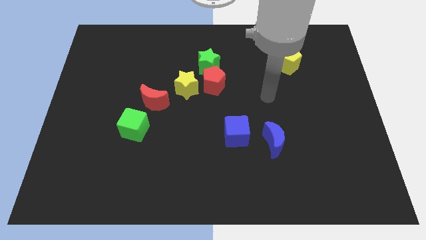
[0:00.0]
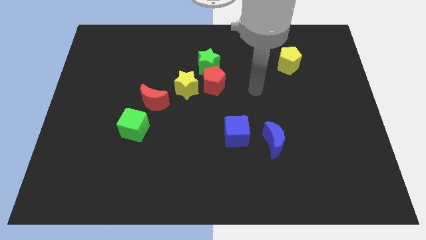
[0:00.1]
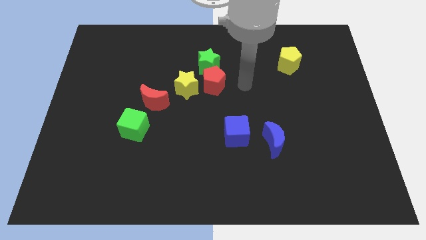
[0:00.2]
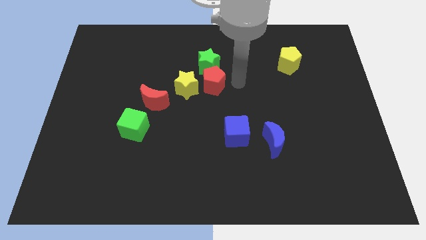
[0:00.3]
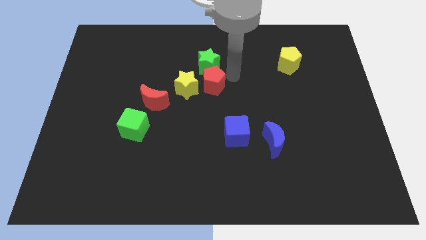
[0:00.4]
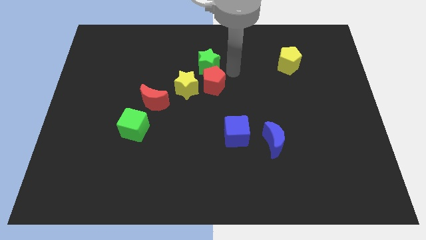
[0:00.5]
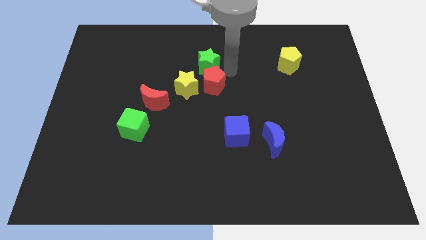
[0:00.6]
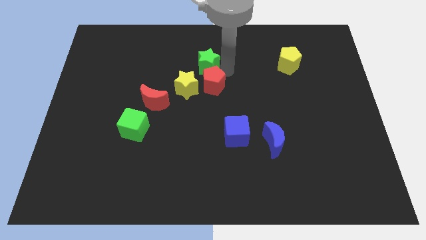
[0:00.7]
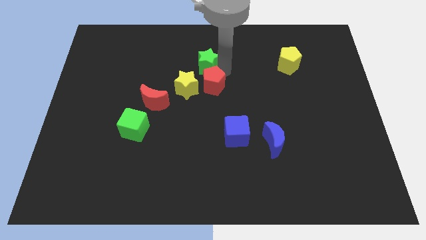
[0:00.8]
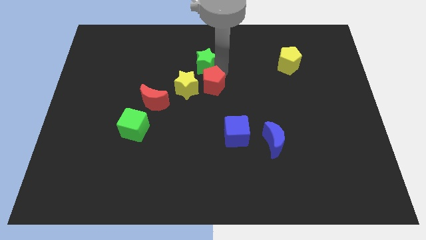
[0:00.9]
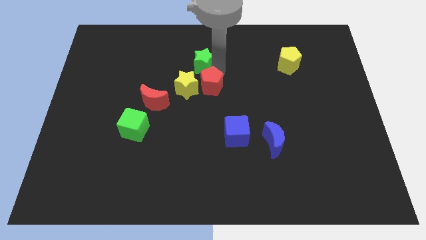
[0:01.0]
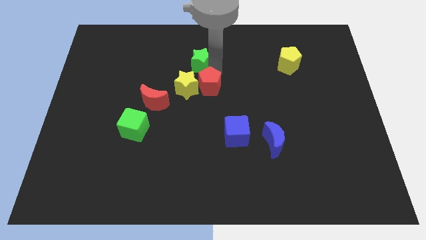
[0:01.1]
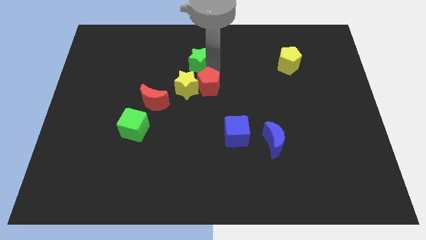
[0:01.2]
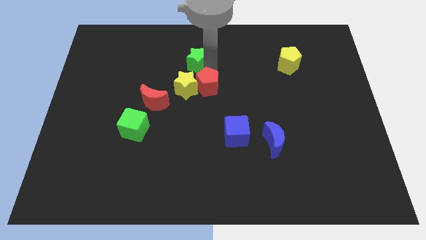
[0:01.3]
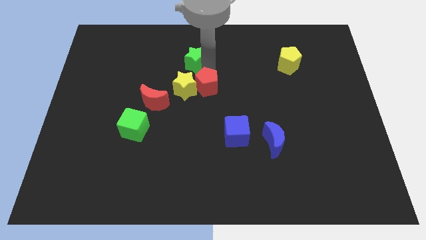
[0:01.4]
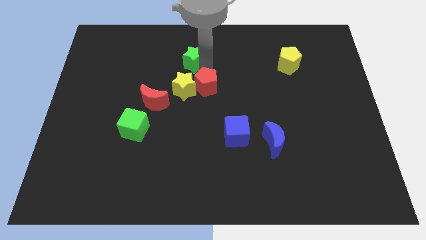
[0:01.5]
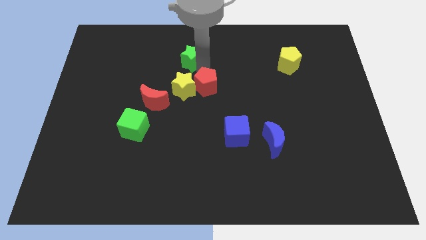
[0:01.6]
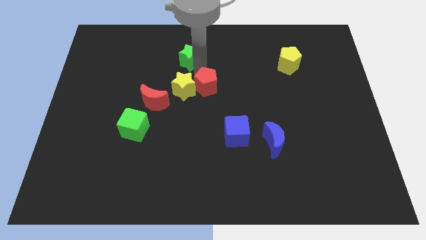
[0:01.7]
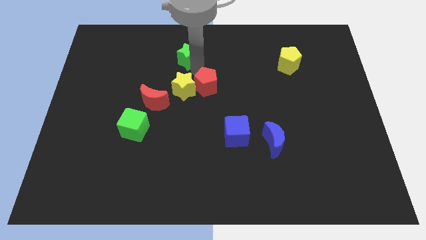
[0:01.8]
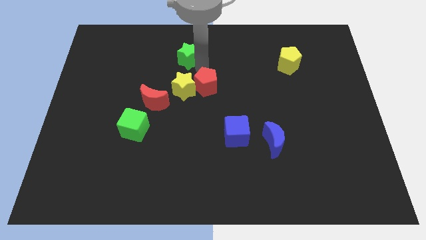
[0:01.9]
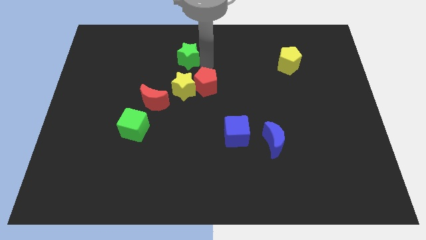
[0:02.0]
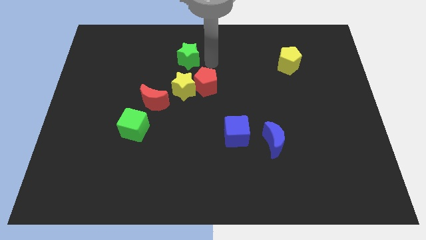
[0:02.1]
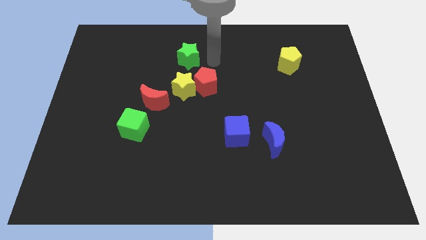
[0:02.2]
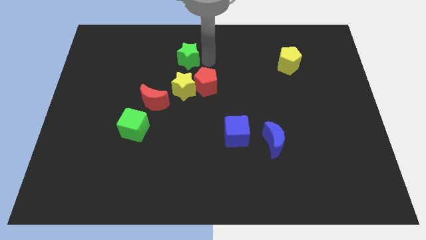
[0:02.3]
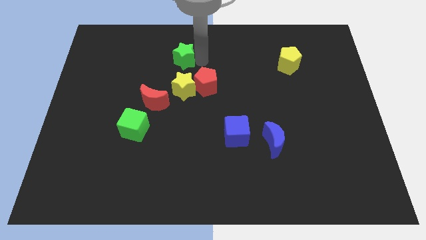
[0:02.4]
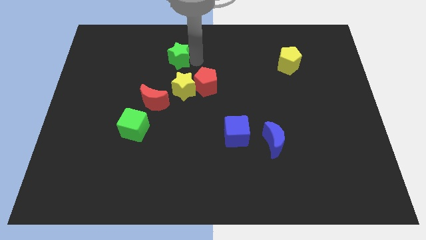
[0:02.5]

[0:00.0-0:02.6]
slightly push the green star to the left

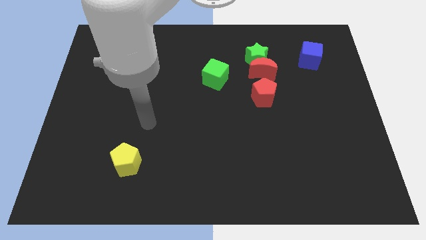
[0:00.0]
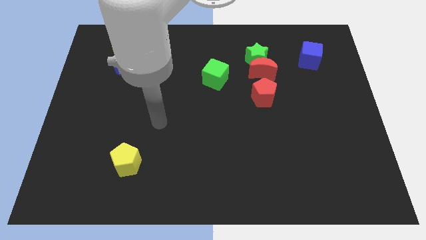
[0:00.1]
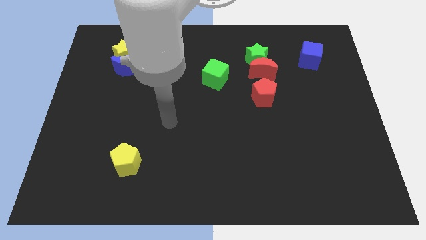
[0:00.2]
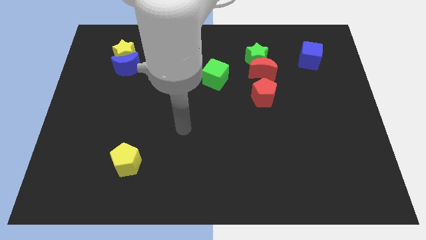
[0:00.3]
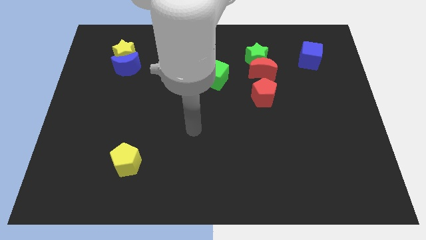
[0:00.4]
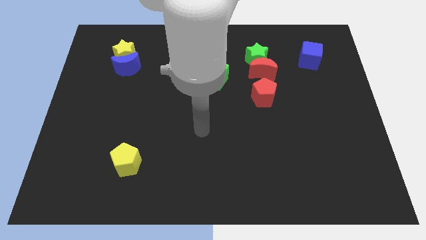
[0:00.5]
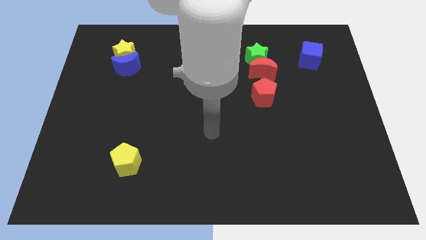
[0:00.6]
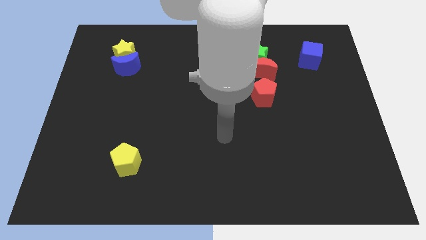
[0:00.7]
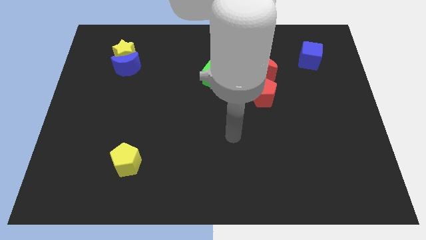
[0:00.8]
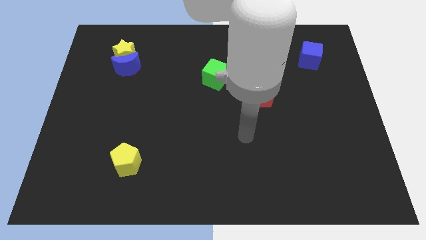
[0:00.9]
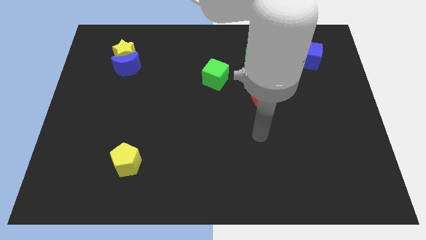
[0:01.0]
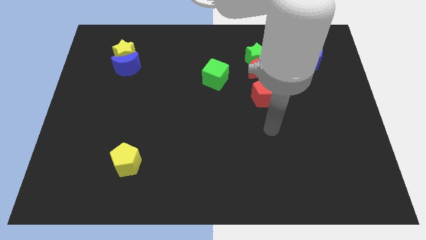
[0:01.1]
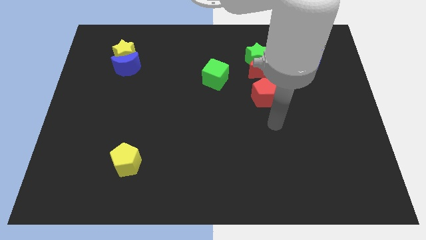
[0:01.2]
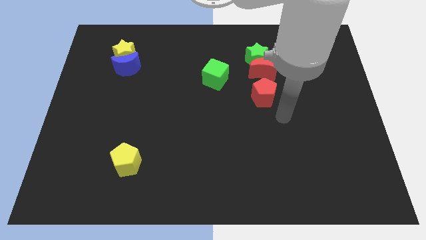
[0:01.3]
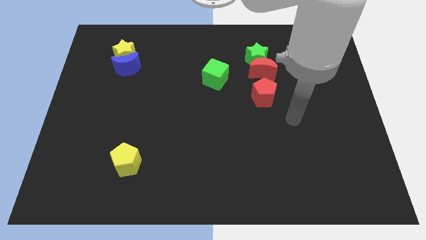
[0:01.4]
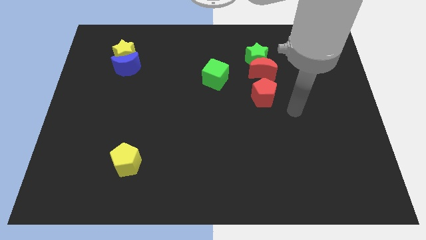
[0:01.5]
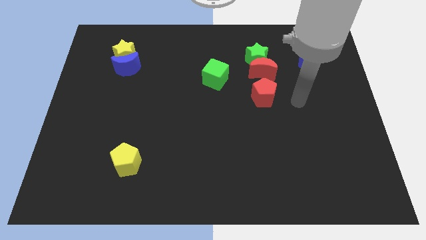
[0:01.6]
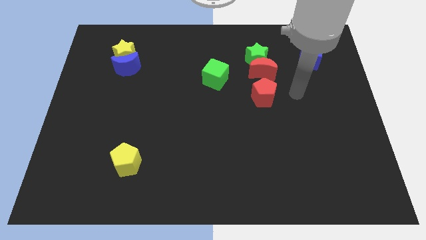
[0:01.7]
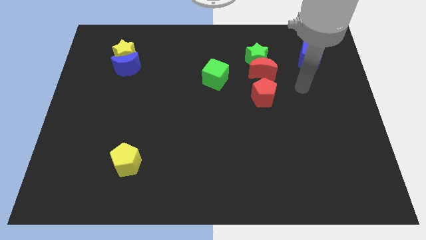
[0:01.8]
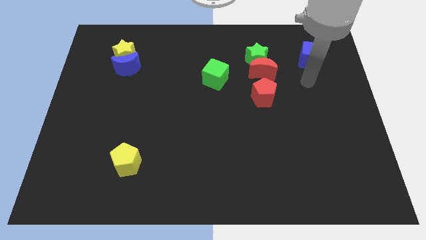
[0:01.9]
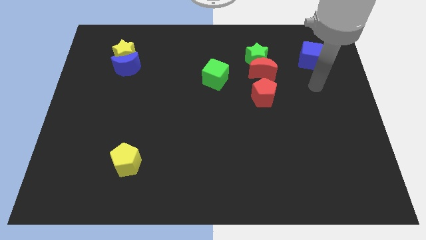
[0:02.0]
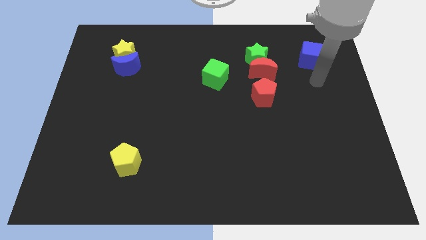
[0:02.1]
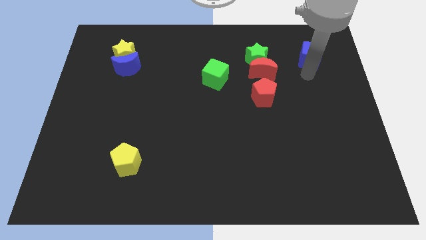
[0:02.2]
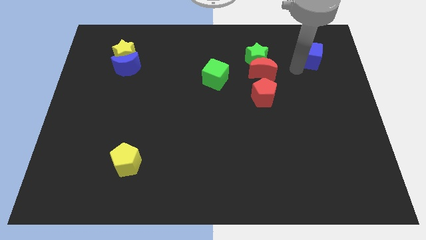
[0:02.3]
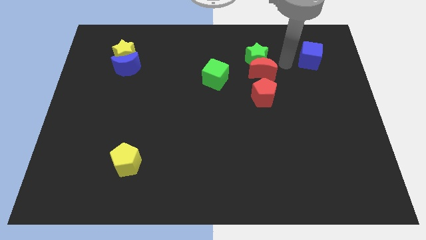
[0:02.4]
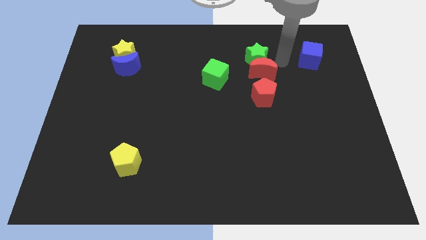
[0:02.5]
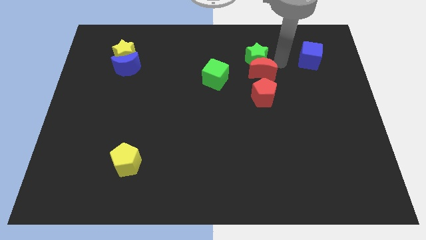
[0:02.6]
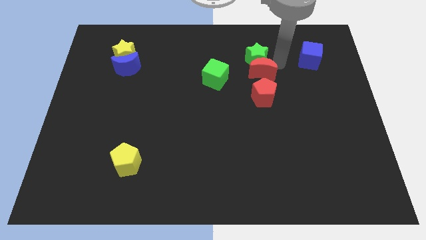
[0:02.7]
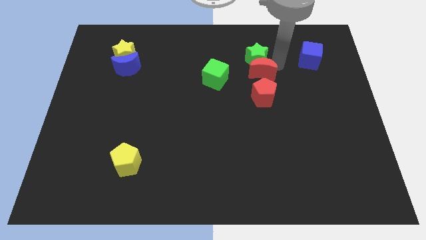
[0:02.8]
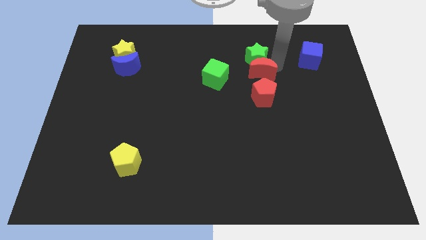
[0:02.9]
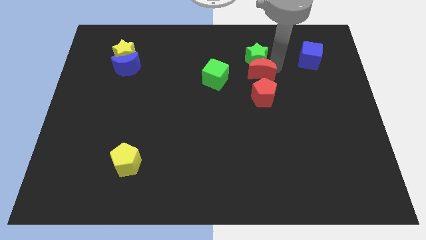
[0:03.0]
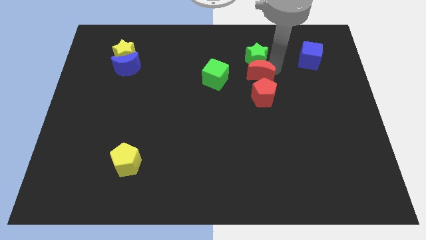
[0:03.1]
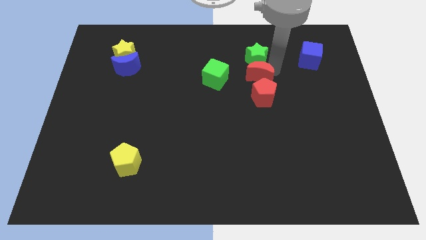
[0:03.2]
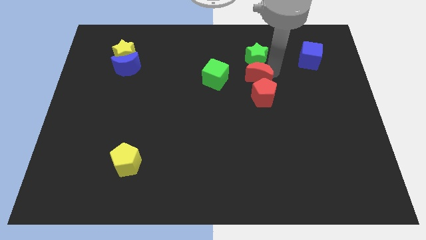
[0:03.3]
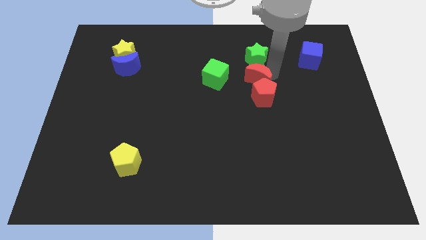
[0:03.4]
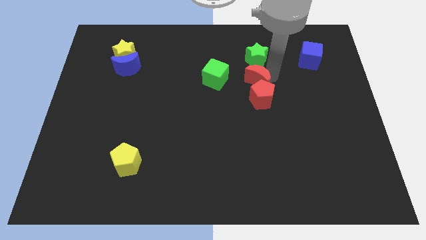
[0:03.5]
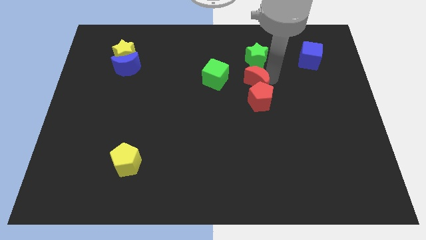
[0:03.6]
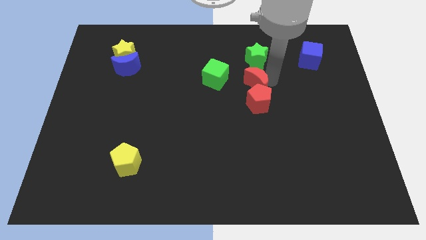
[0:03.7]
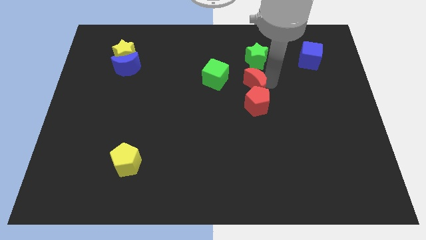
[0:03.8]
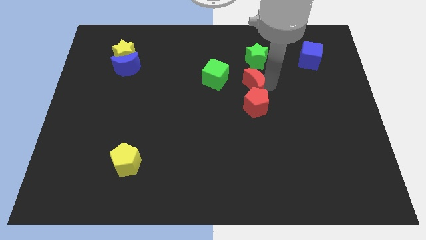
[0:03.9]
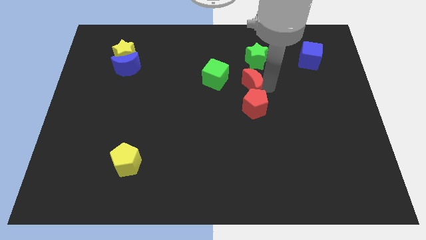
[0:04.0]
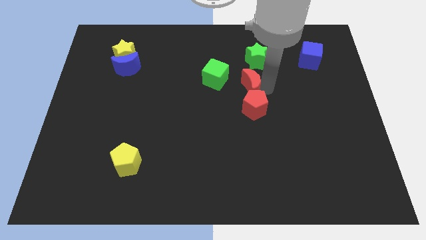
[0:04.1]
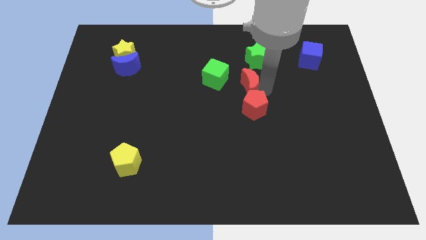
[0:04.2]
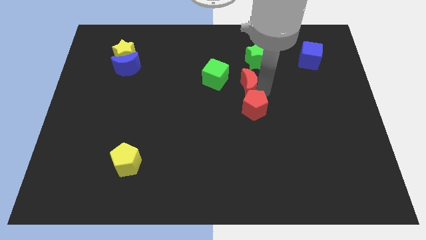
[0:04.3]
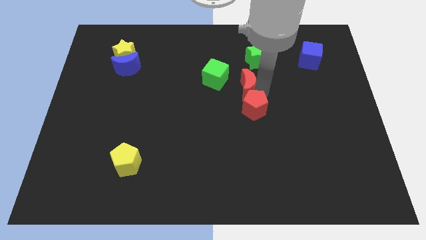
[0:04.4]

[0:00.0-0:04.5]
slightly move the red moon downwards and left diagonally

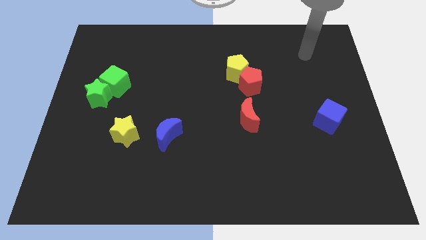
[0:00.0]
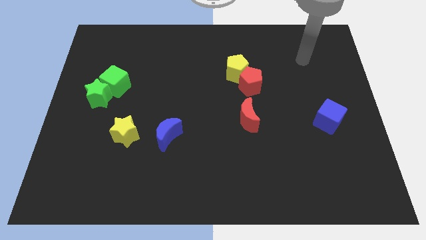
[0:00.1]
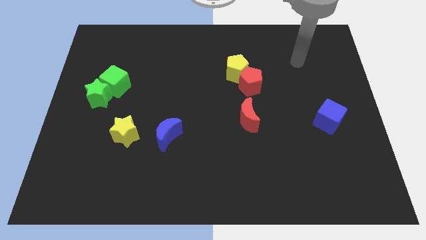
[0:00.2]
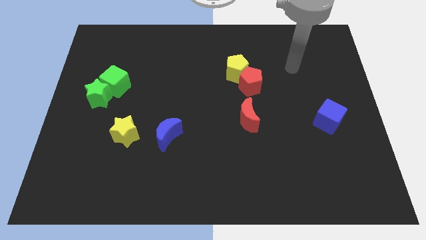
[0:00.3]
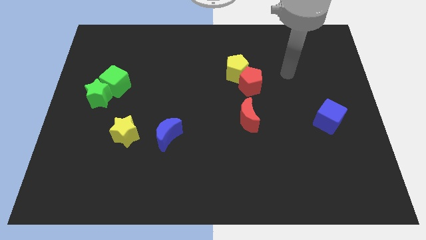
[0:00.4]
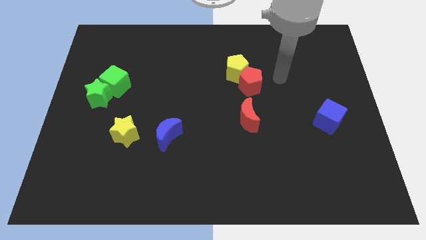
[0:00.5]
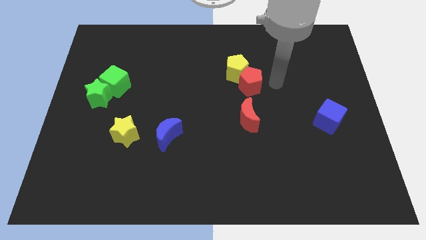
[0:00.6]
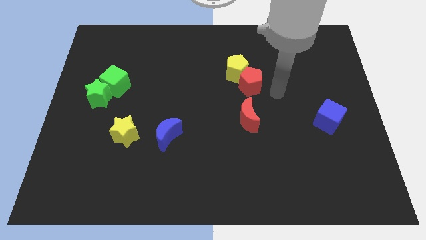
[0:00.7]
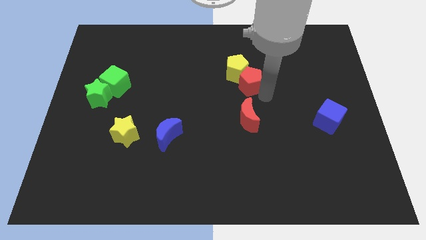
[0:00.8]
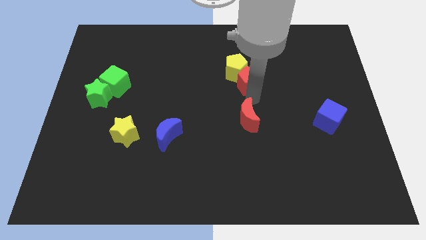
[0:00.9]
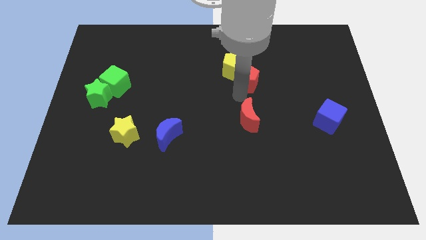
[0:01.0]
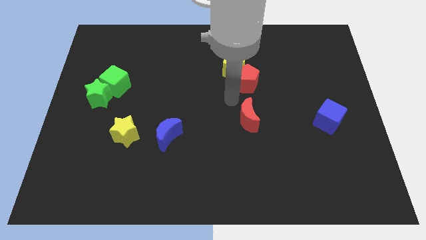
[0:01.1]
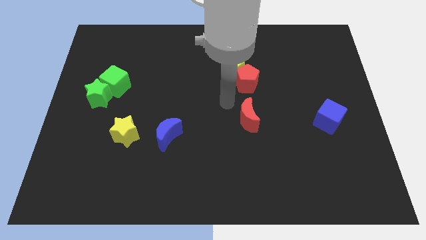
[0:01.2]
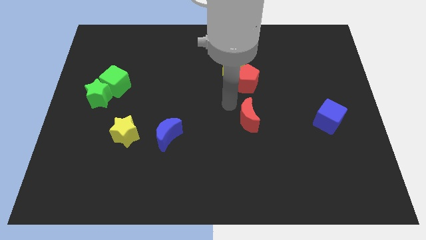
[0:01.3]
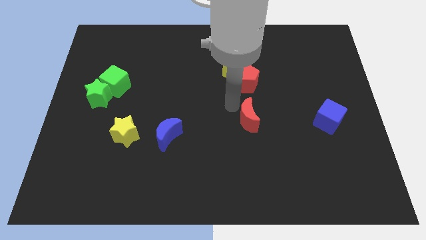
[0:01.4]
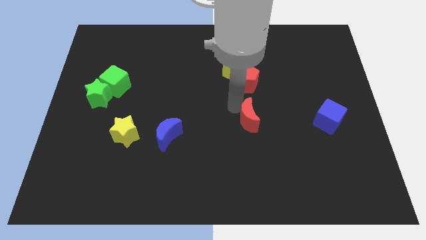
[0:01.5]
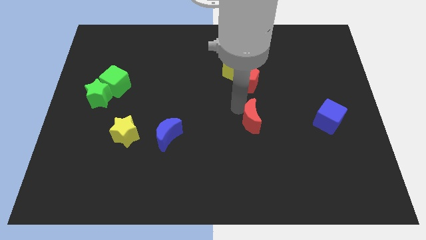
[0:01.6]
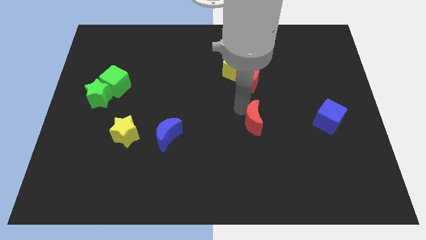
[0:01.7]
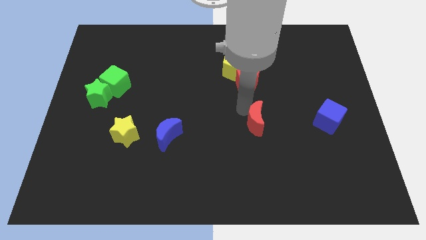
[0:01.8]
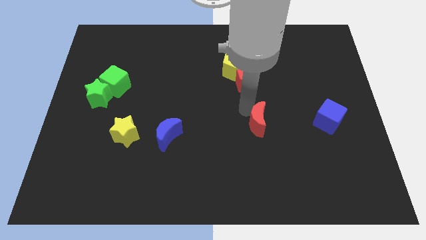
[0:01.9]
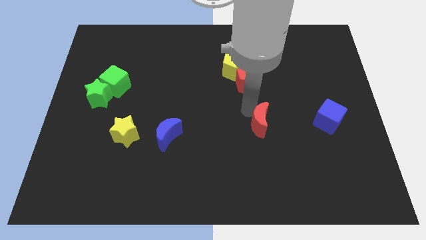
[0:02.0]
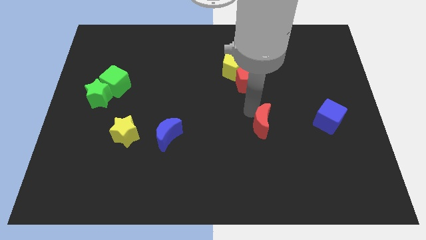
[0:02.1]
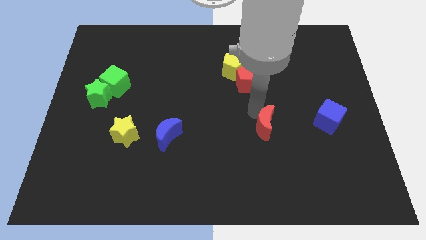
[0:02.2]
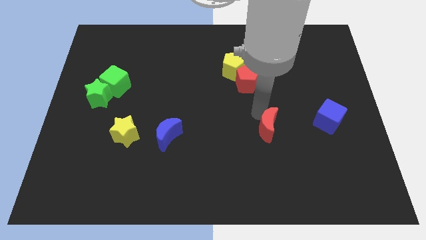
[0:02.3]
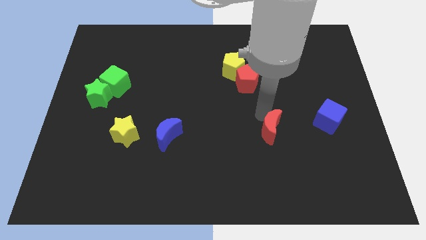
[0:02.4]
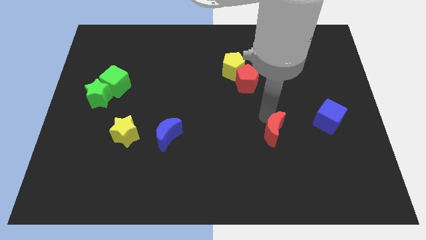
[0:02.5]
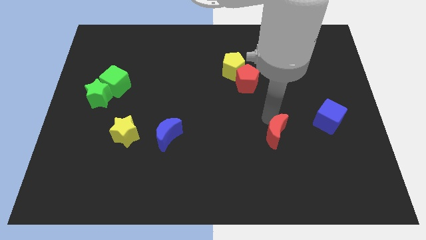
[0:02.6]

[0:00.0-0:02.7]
move the red moon down and then right somewhat
